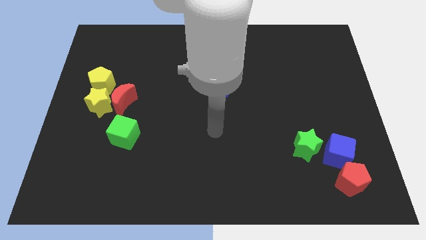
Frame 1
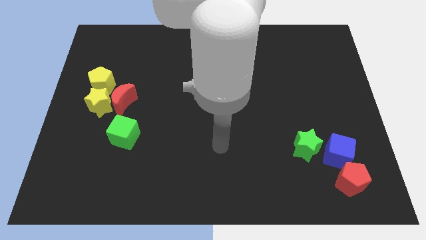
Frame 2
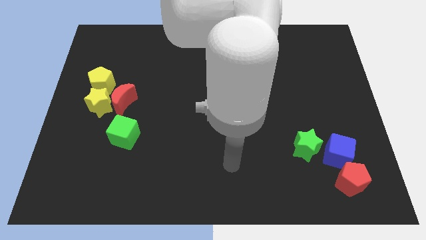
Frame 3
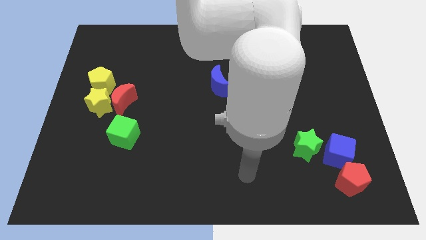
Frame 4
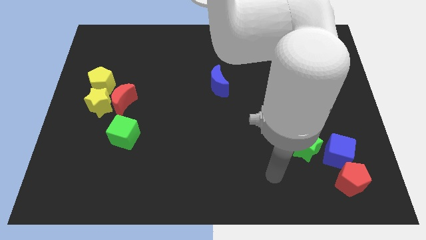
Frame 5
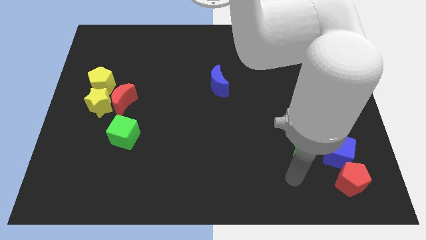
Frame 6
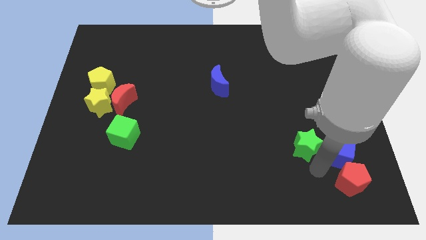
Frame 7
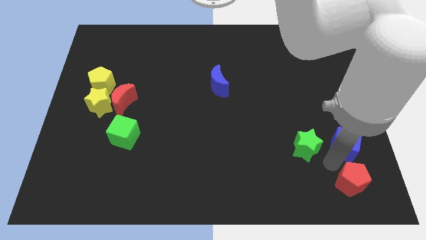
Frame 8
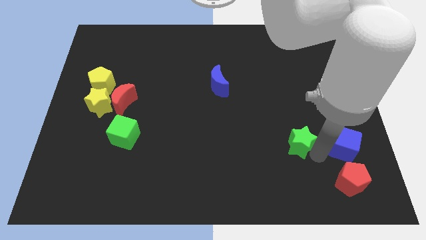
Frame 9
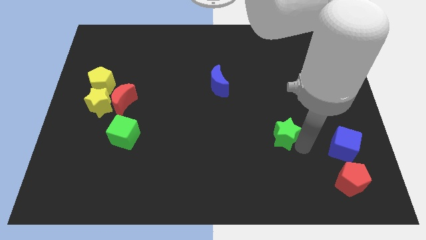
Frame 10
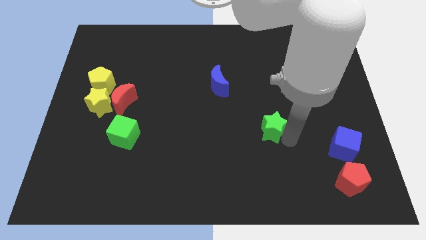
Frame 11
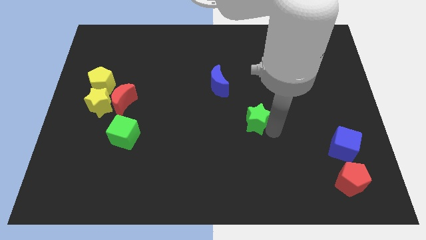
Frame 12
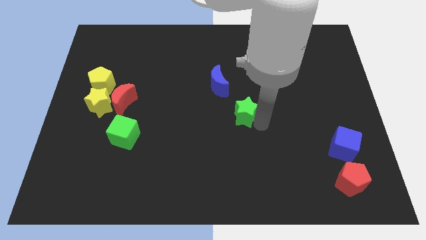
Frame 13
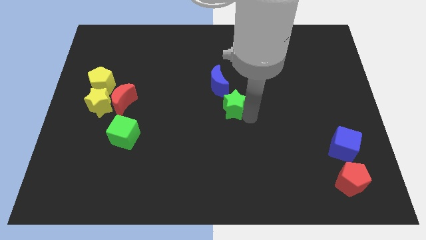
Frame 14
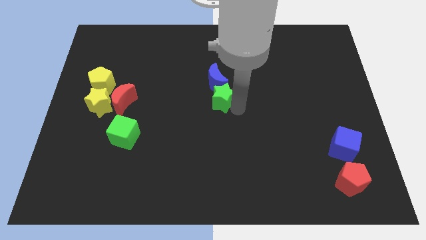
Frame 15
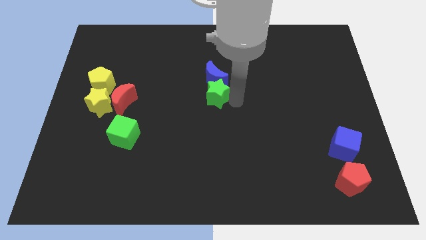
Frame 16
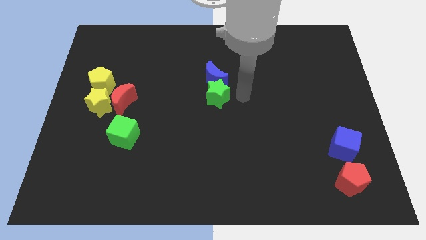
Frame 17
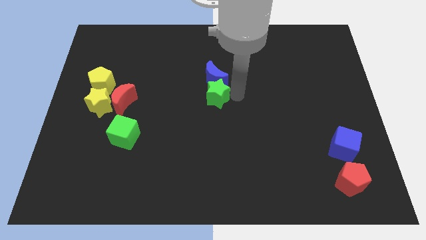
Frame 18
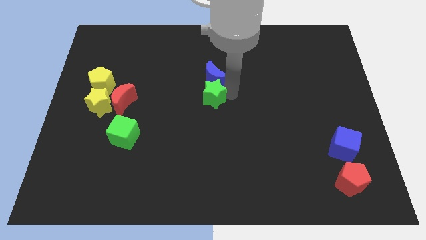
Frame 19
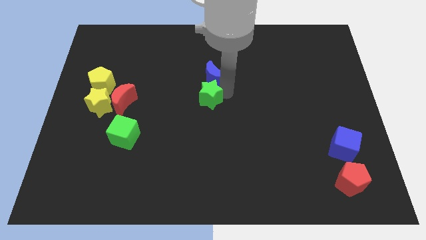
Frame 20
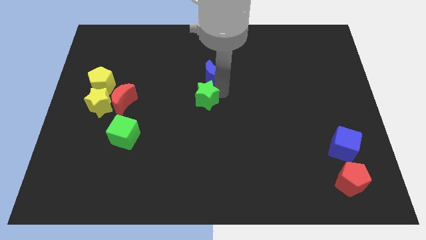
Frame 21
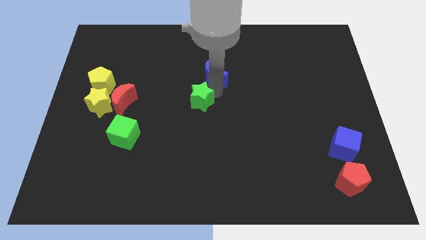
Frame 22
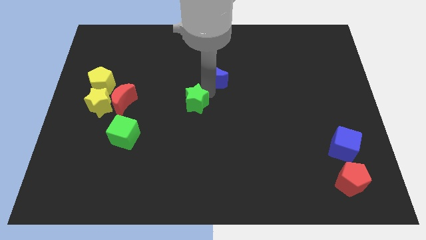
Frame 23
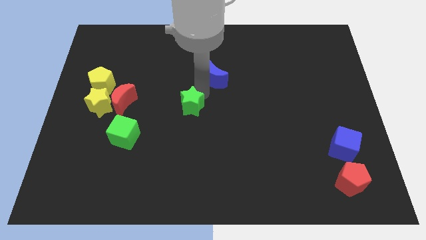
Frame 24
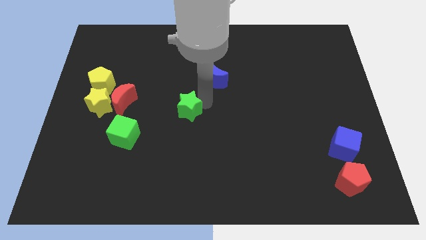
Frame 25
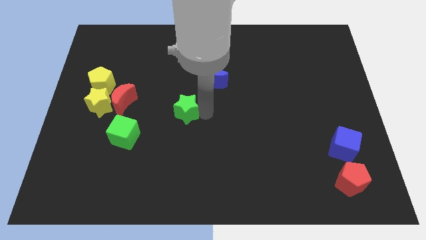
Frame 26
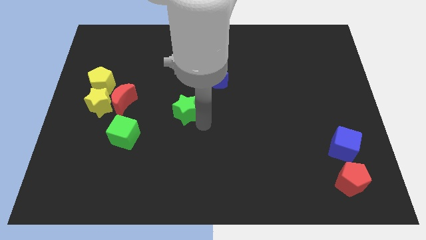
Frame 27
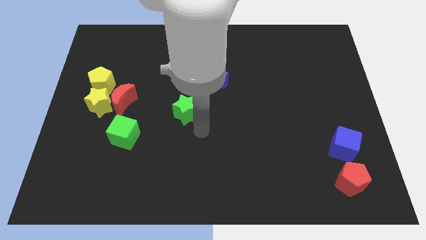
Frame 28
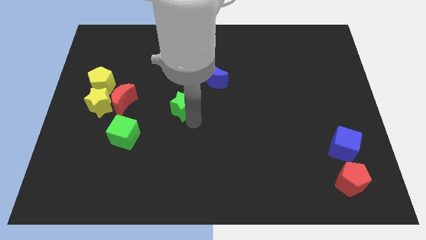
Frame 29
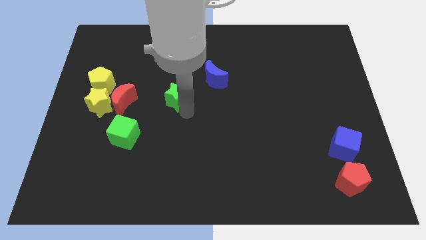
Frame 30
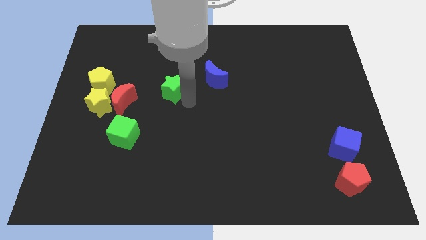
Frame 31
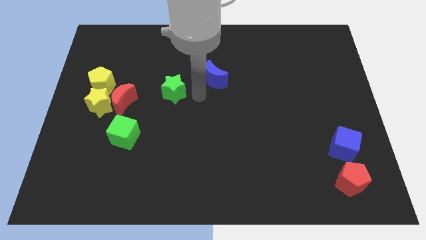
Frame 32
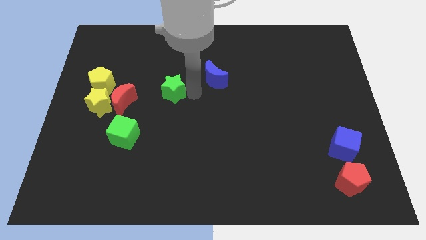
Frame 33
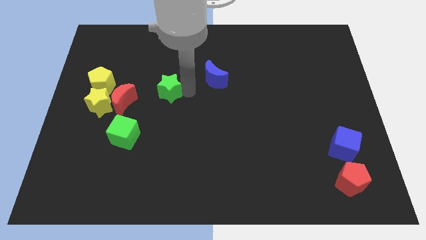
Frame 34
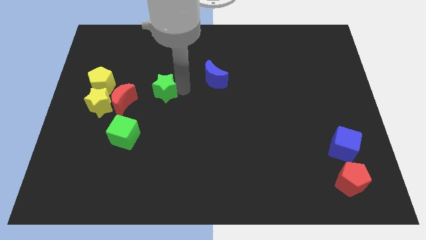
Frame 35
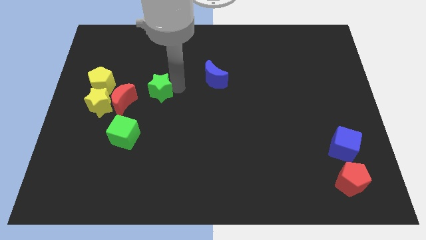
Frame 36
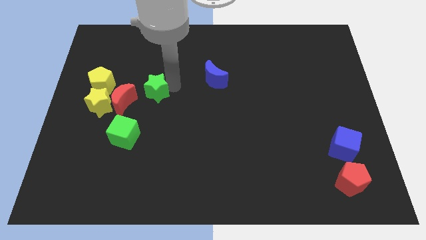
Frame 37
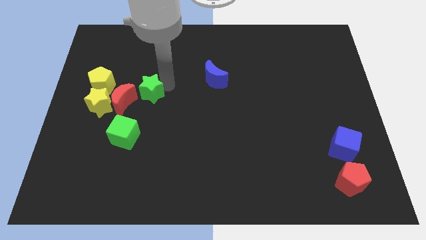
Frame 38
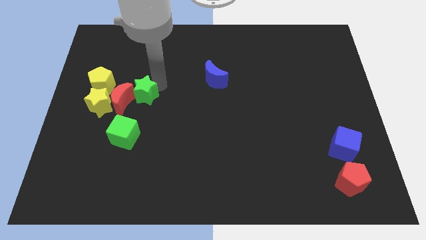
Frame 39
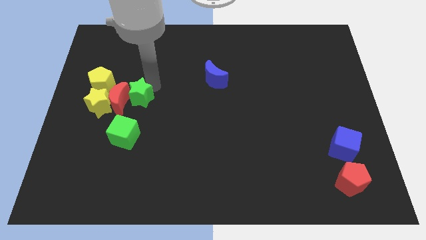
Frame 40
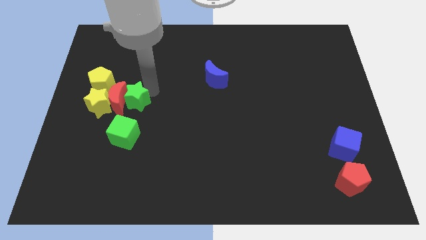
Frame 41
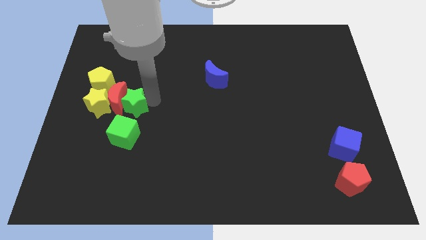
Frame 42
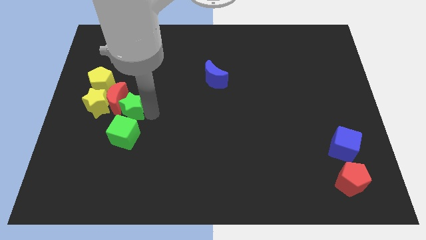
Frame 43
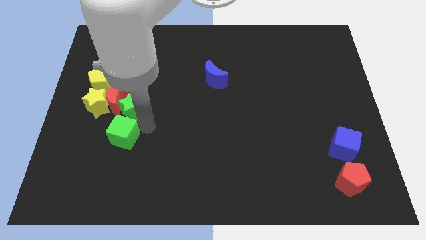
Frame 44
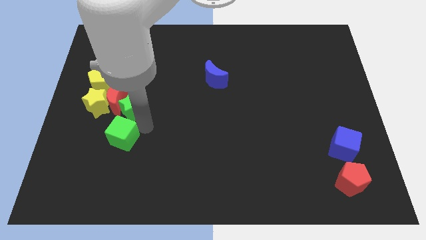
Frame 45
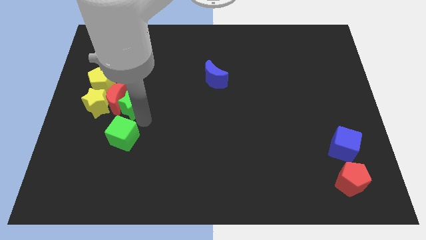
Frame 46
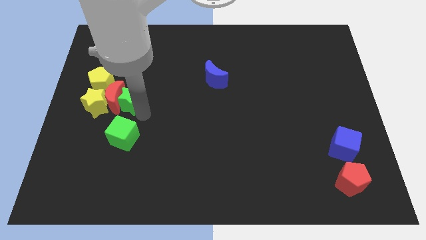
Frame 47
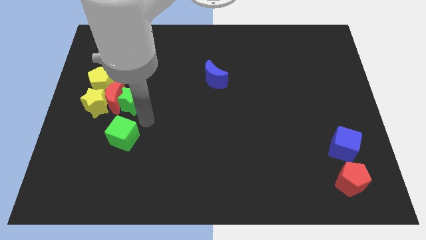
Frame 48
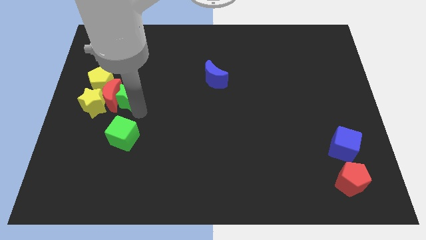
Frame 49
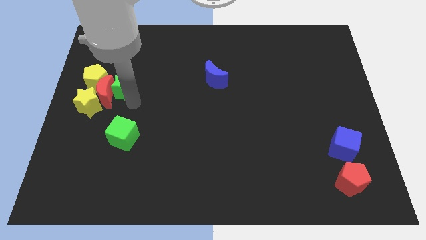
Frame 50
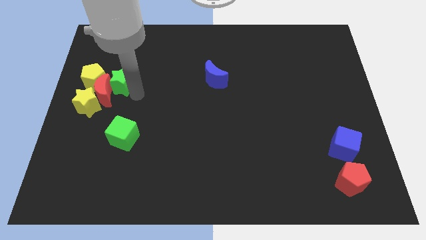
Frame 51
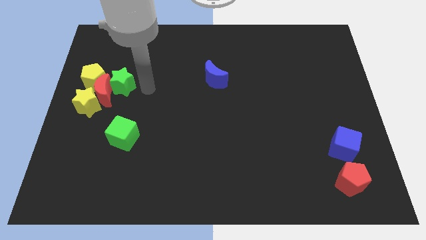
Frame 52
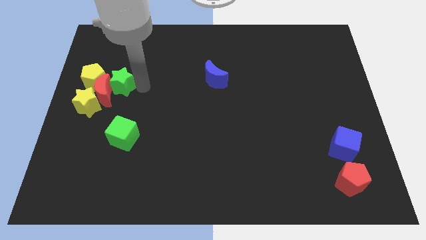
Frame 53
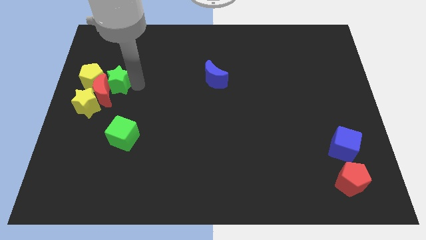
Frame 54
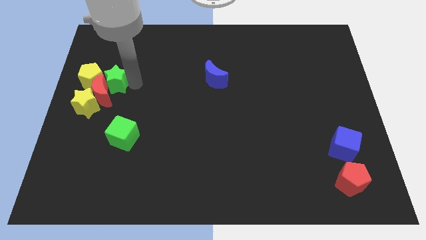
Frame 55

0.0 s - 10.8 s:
put the green star towards the yellow pentagon
